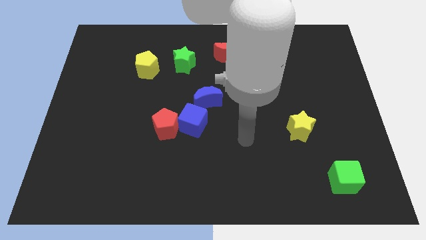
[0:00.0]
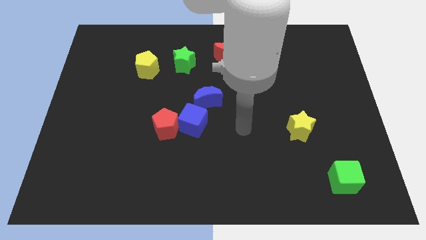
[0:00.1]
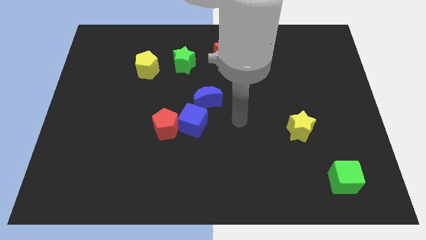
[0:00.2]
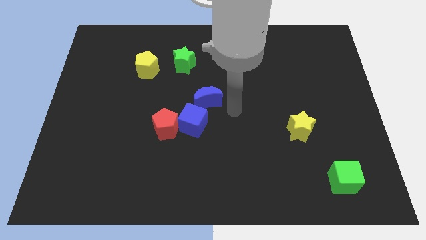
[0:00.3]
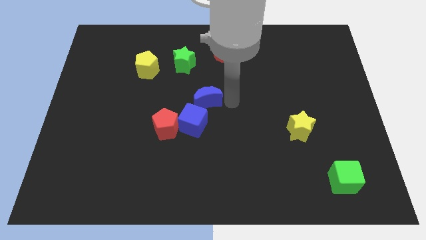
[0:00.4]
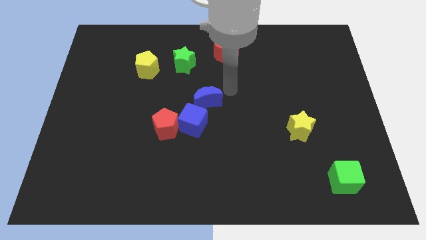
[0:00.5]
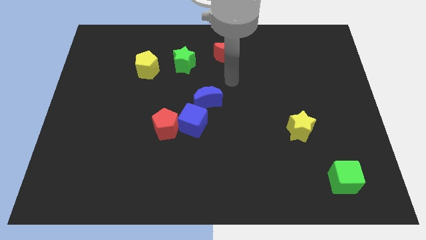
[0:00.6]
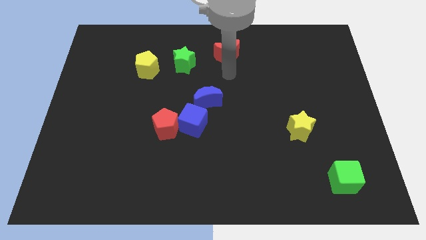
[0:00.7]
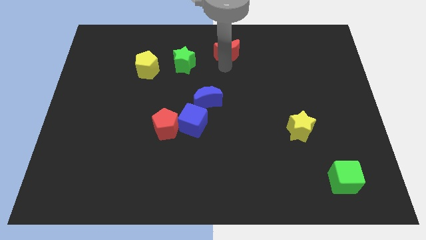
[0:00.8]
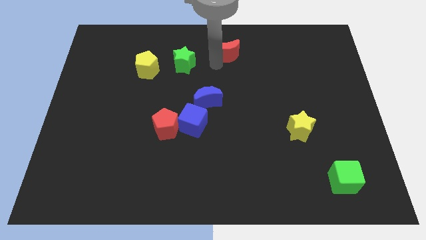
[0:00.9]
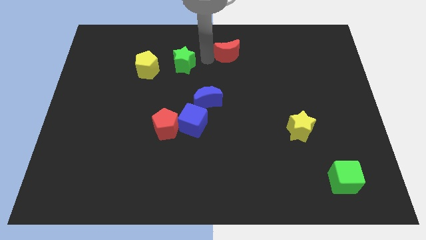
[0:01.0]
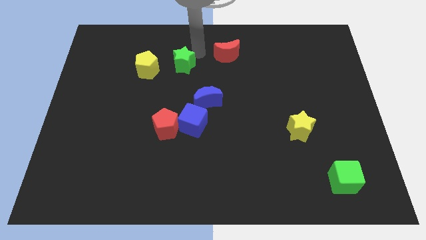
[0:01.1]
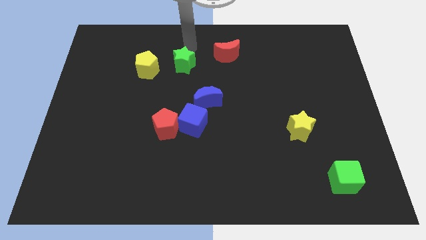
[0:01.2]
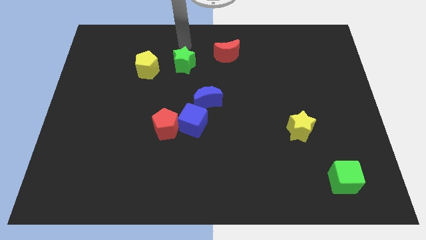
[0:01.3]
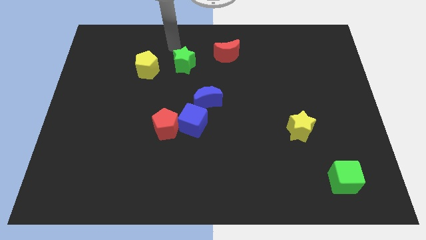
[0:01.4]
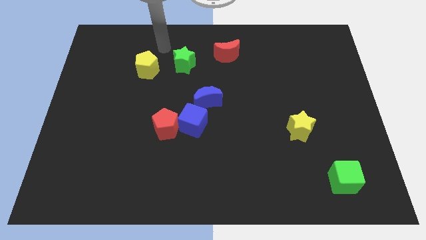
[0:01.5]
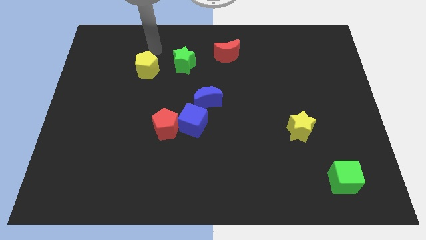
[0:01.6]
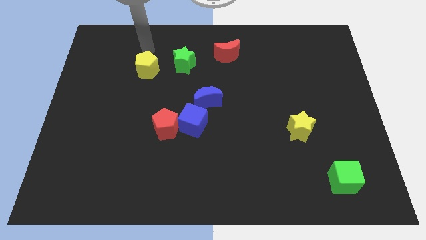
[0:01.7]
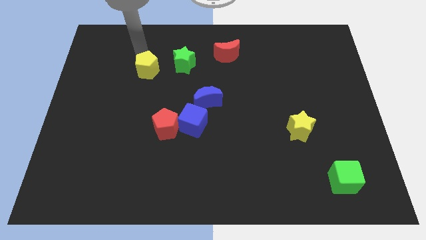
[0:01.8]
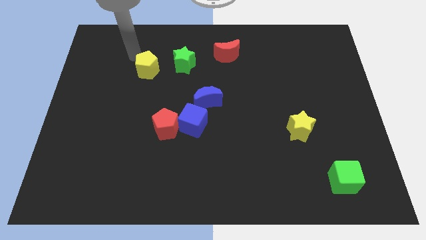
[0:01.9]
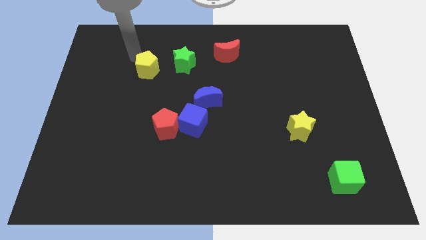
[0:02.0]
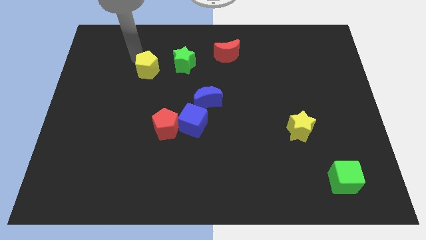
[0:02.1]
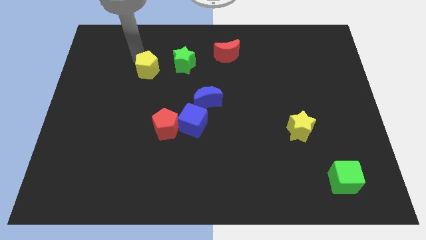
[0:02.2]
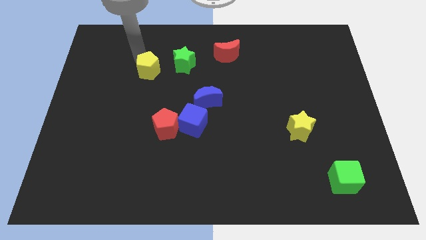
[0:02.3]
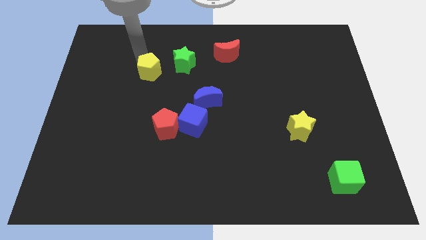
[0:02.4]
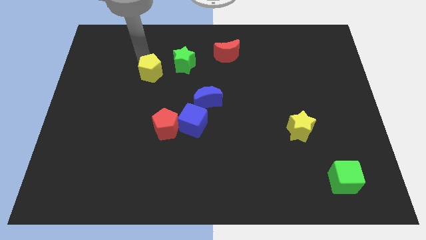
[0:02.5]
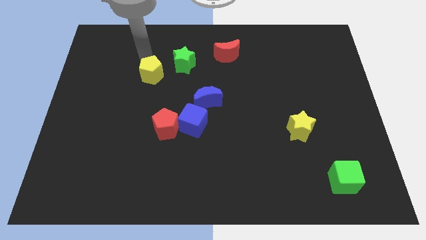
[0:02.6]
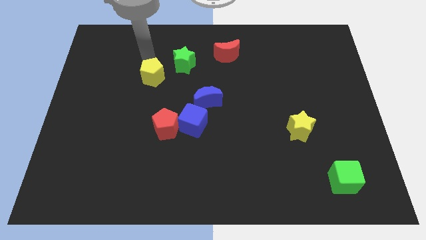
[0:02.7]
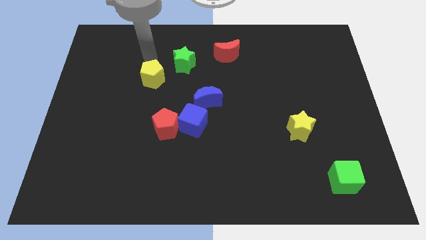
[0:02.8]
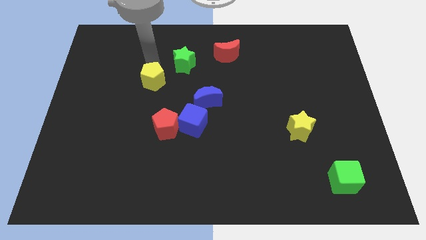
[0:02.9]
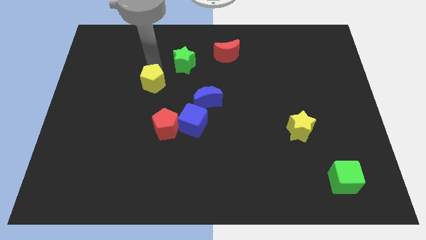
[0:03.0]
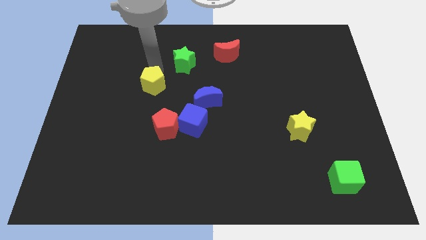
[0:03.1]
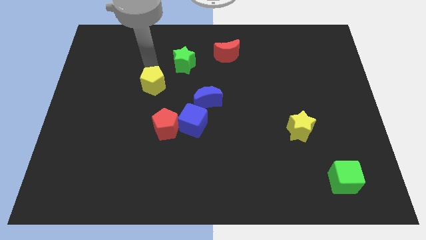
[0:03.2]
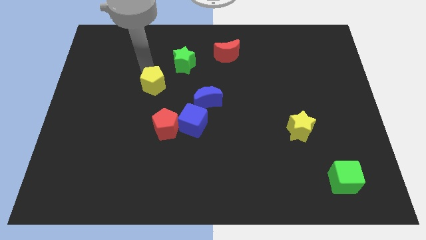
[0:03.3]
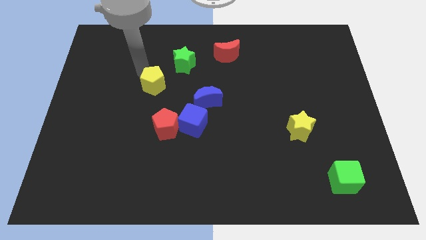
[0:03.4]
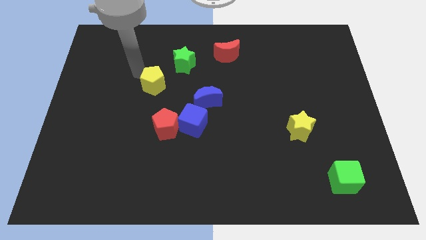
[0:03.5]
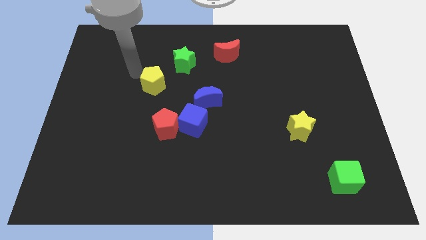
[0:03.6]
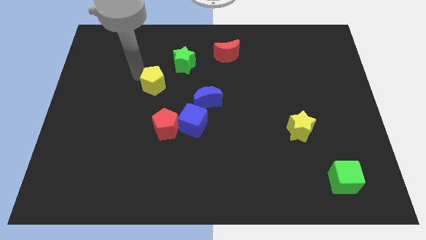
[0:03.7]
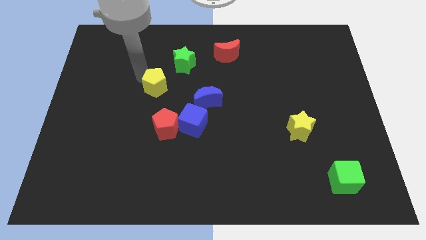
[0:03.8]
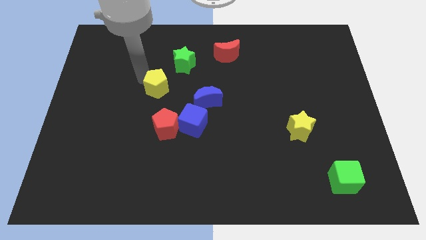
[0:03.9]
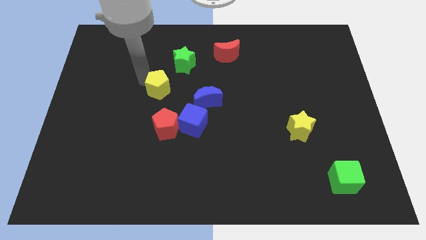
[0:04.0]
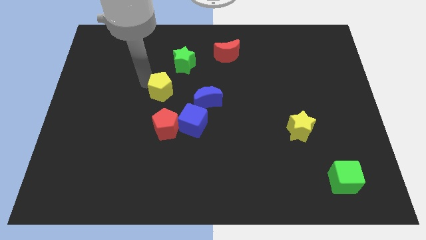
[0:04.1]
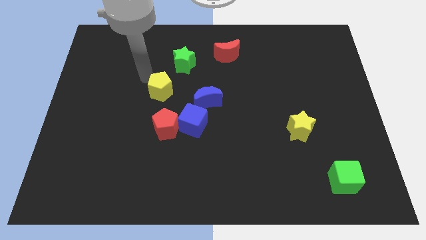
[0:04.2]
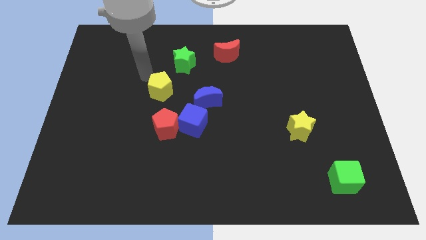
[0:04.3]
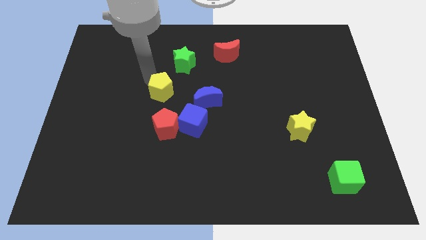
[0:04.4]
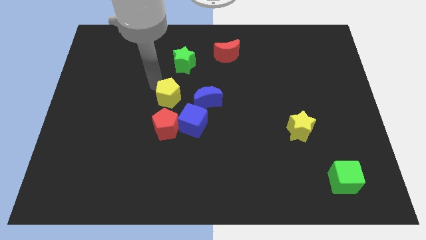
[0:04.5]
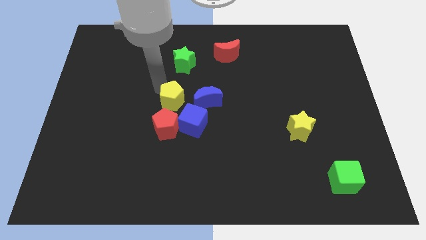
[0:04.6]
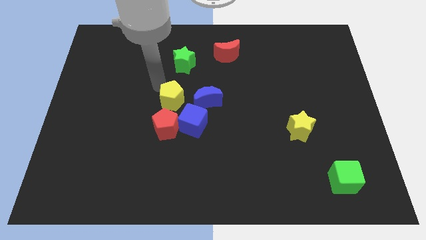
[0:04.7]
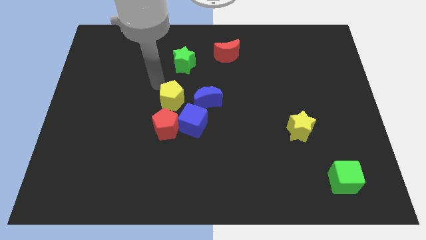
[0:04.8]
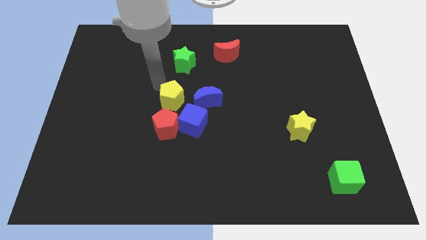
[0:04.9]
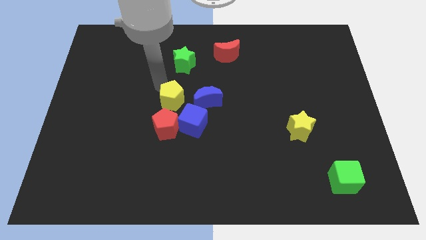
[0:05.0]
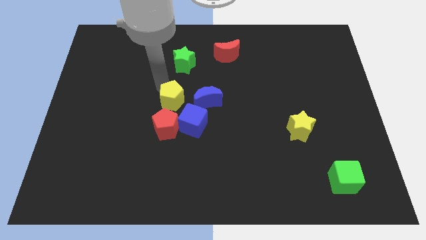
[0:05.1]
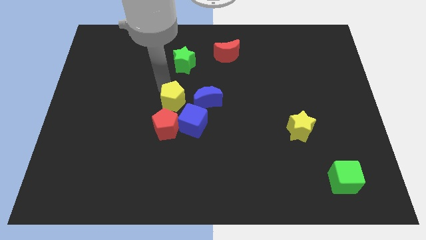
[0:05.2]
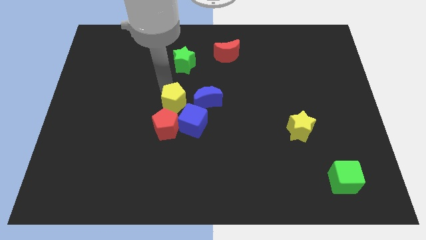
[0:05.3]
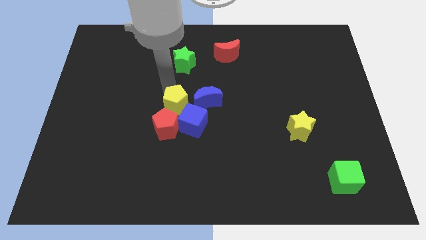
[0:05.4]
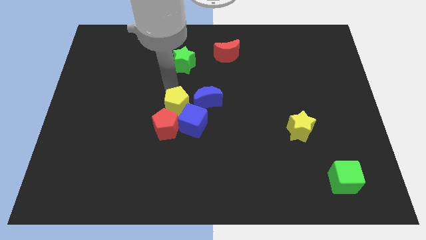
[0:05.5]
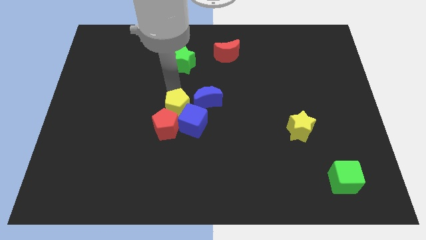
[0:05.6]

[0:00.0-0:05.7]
move the yellow pentagon next to the blue cube

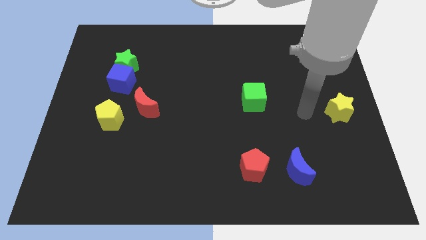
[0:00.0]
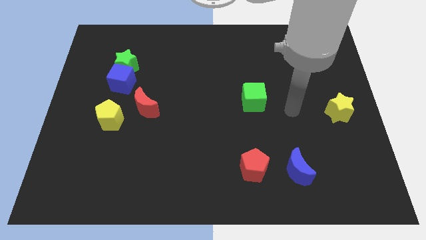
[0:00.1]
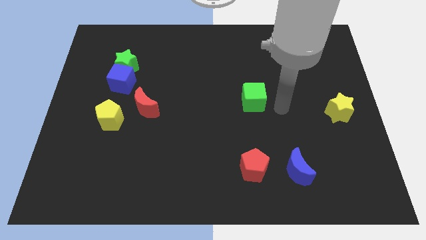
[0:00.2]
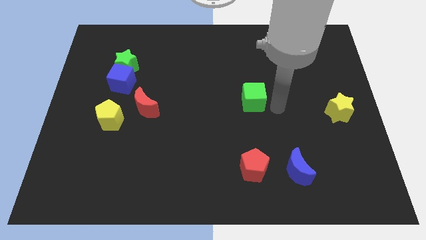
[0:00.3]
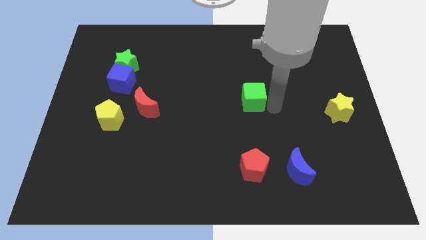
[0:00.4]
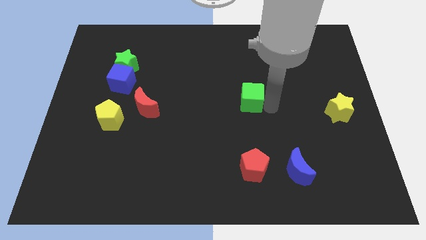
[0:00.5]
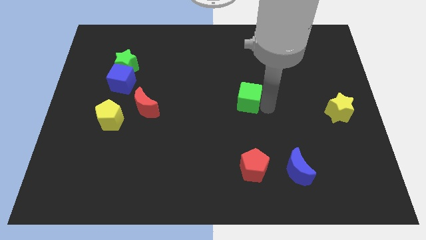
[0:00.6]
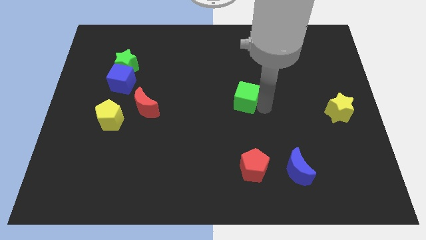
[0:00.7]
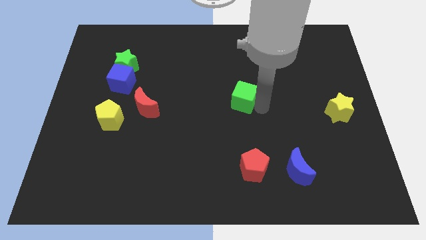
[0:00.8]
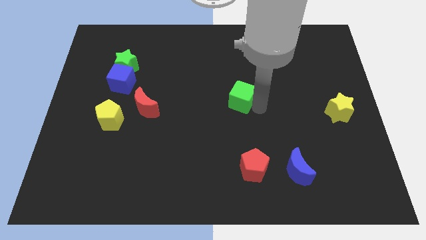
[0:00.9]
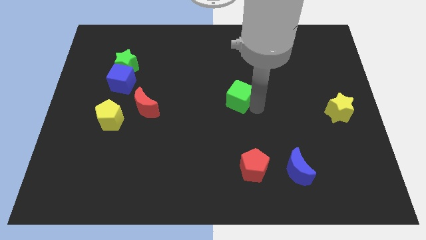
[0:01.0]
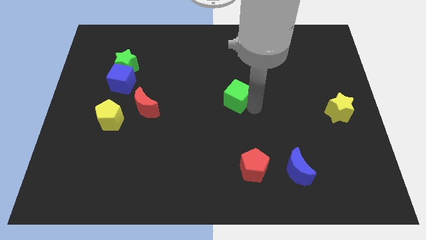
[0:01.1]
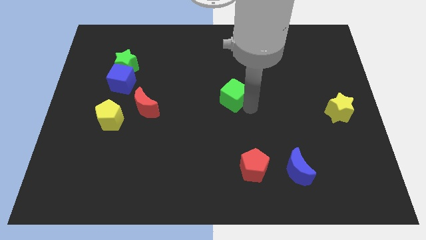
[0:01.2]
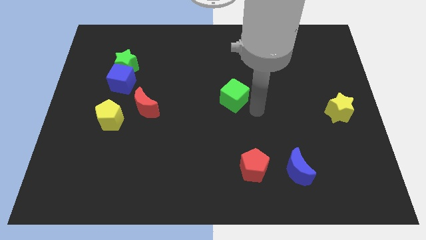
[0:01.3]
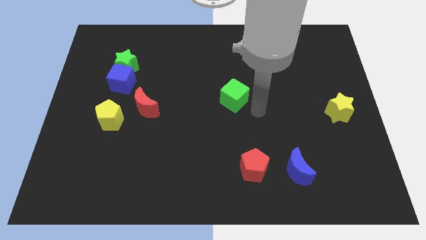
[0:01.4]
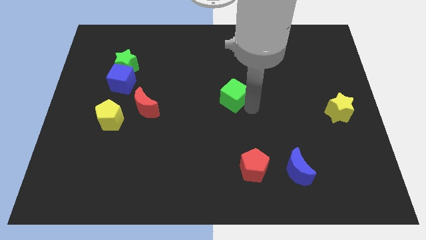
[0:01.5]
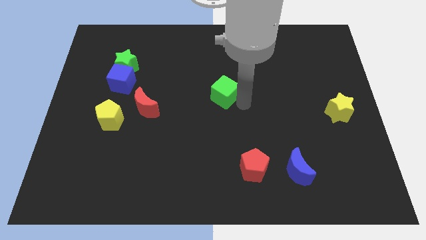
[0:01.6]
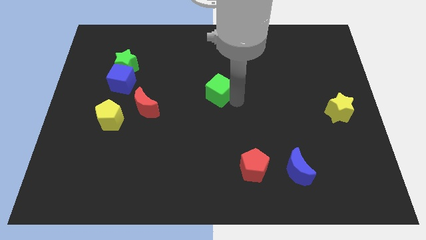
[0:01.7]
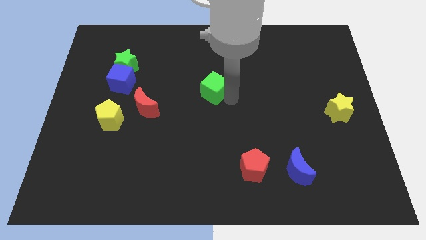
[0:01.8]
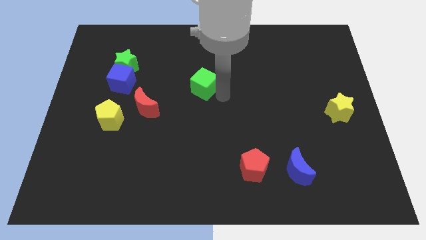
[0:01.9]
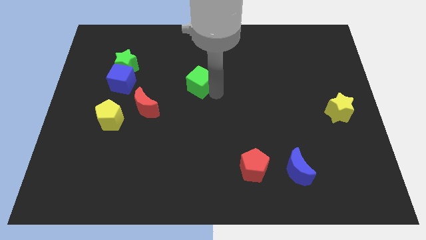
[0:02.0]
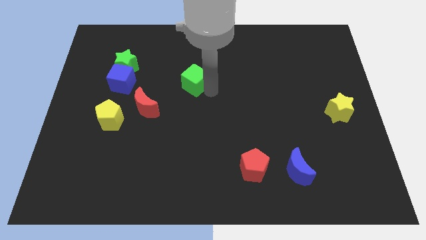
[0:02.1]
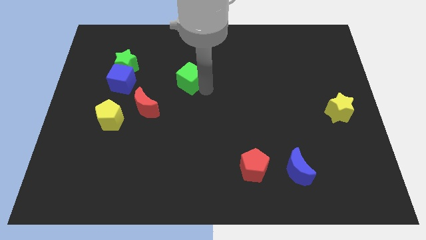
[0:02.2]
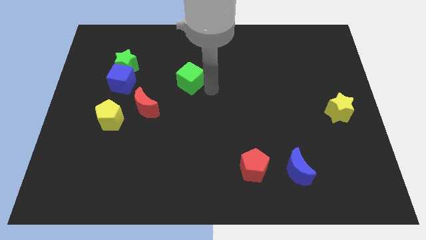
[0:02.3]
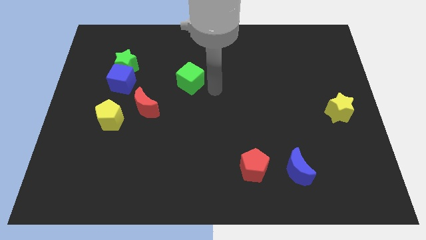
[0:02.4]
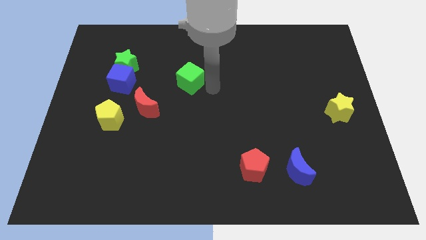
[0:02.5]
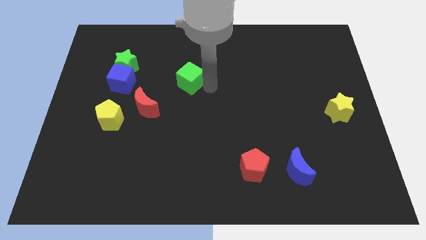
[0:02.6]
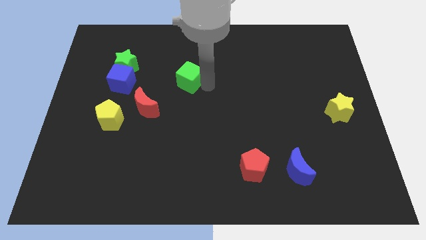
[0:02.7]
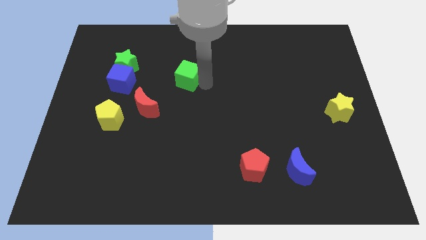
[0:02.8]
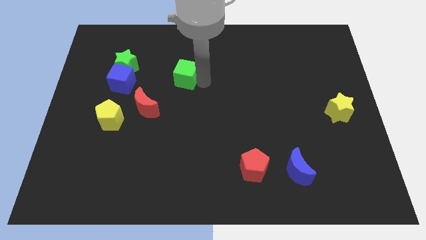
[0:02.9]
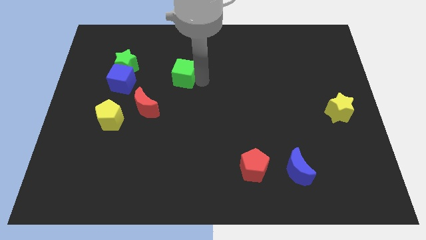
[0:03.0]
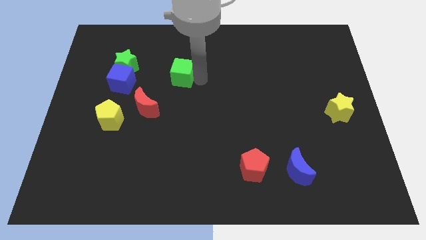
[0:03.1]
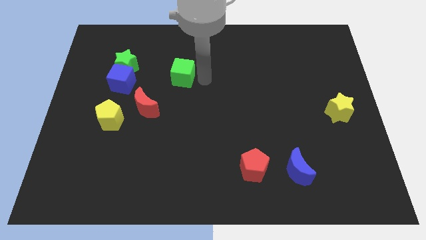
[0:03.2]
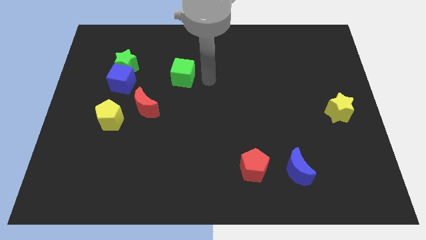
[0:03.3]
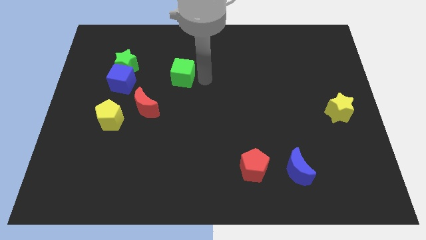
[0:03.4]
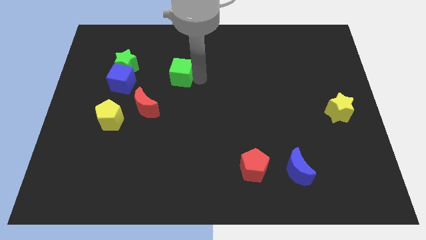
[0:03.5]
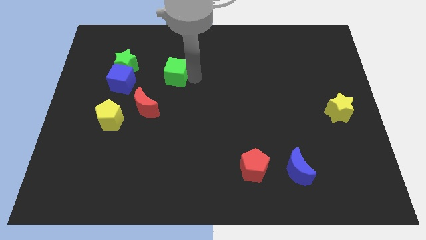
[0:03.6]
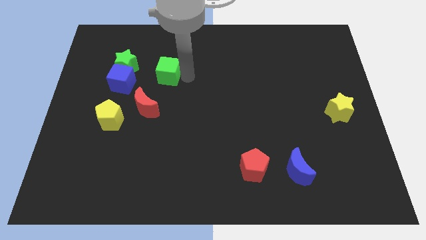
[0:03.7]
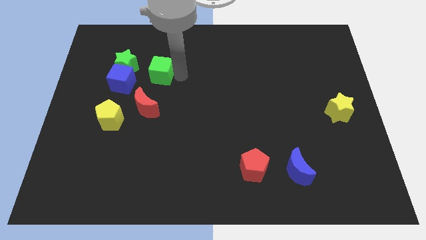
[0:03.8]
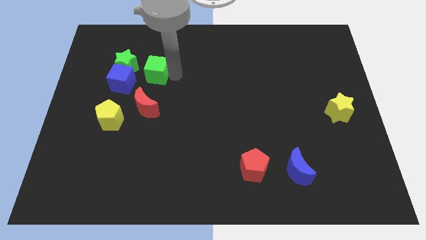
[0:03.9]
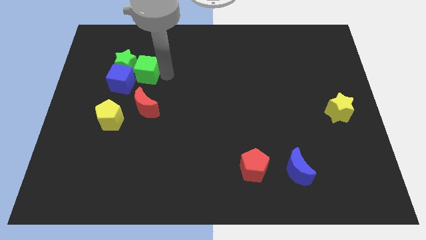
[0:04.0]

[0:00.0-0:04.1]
push the green cube next to the green star
